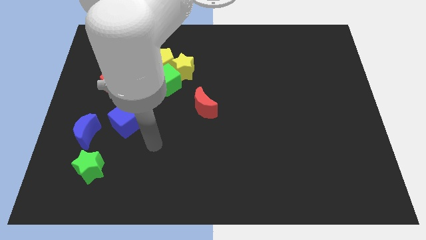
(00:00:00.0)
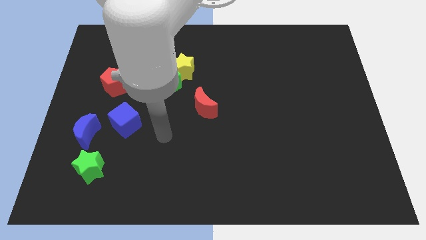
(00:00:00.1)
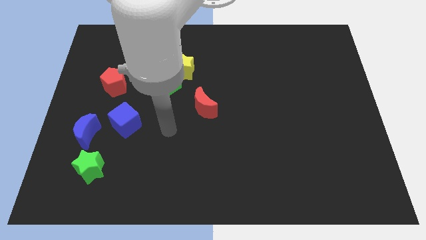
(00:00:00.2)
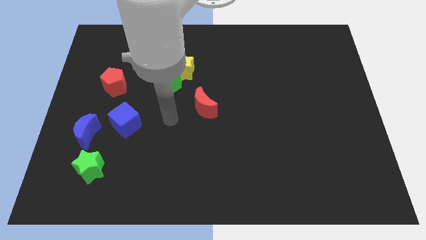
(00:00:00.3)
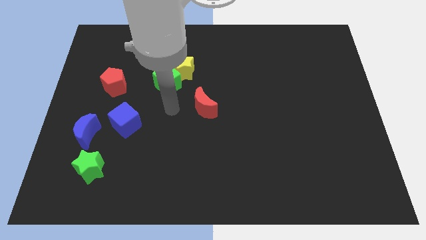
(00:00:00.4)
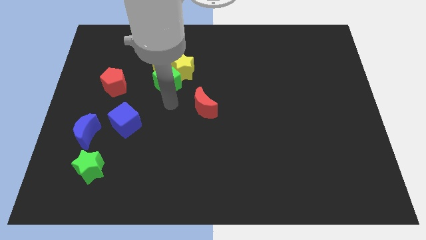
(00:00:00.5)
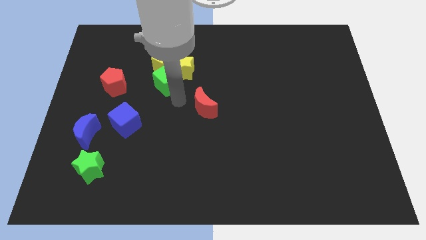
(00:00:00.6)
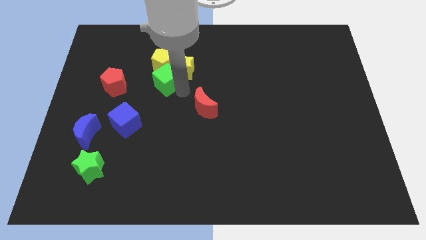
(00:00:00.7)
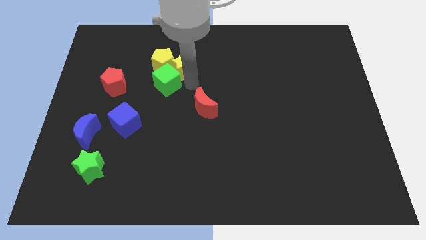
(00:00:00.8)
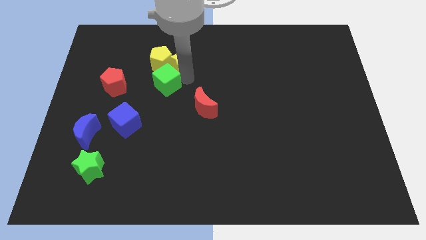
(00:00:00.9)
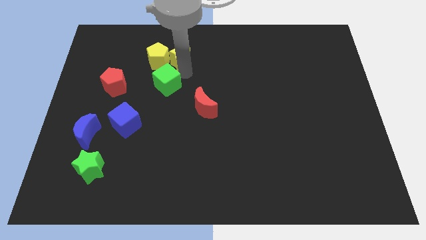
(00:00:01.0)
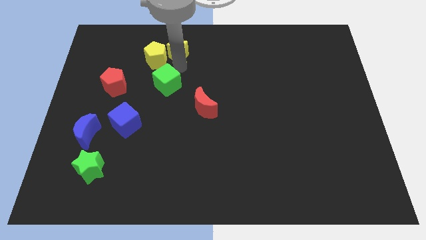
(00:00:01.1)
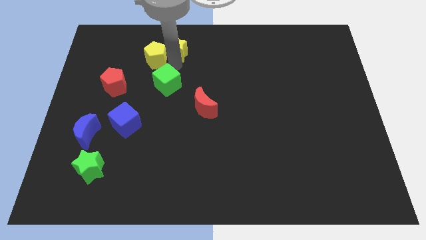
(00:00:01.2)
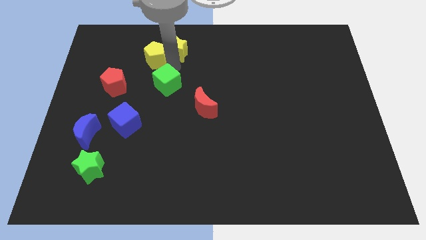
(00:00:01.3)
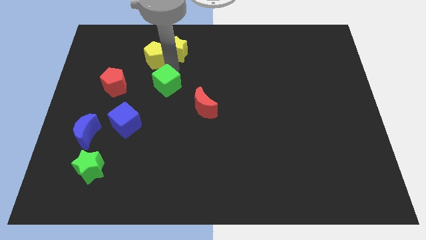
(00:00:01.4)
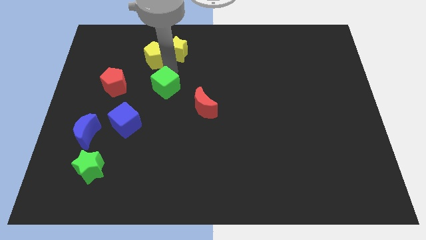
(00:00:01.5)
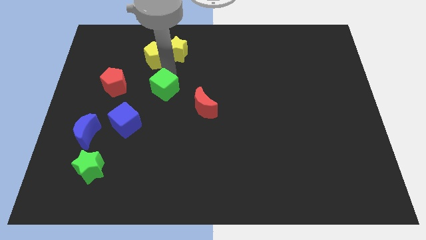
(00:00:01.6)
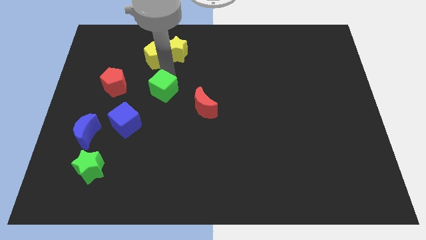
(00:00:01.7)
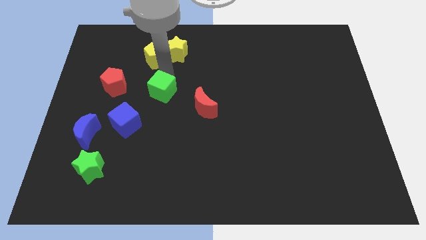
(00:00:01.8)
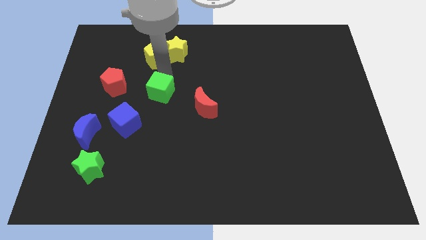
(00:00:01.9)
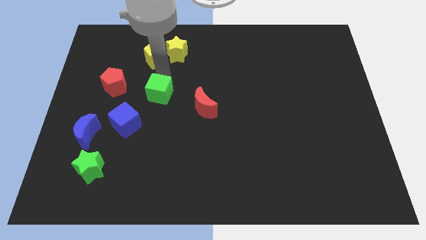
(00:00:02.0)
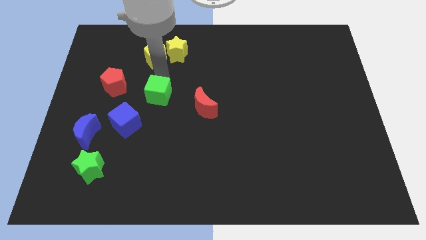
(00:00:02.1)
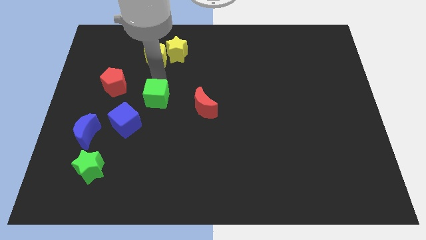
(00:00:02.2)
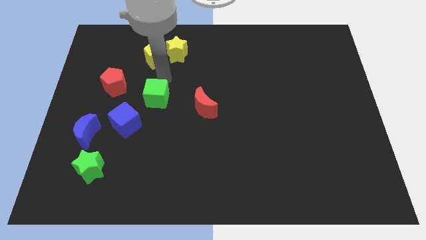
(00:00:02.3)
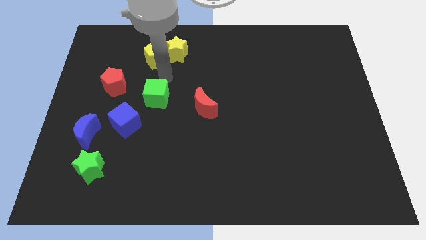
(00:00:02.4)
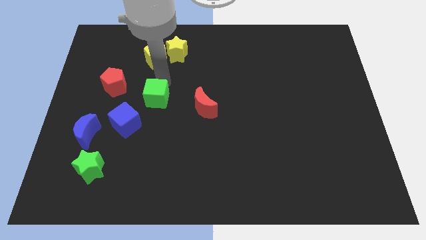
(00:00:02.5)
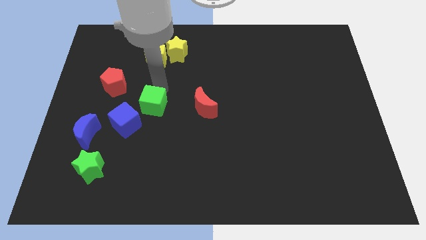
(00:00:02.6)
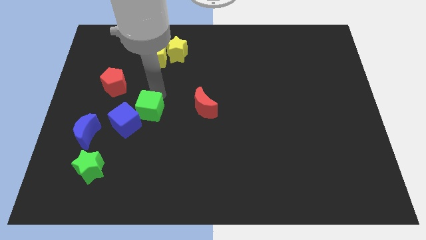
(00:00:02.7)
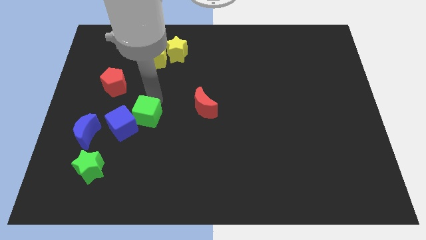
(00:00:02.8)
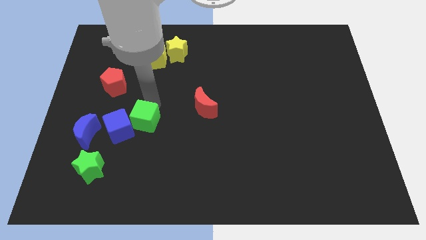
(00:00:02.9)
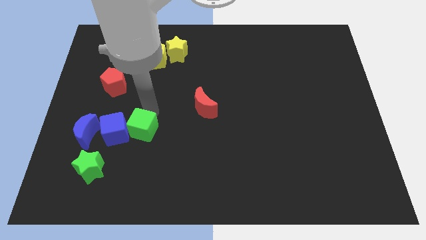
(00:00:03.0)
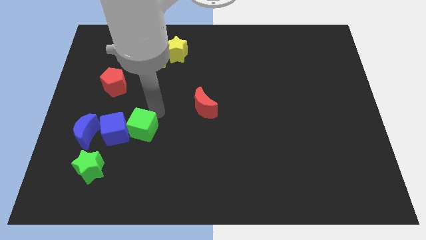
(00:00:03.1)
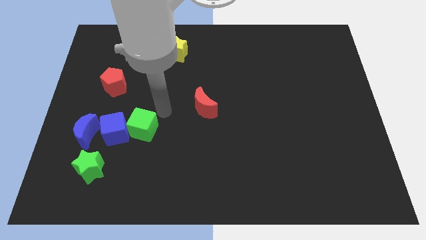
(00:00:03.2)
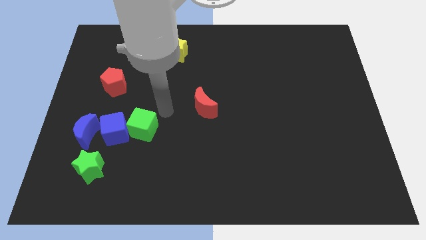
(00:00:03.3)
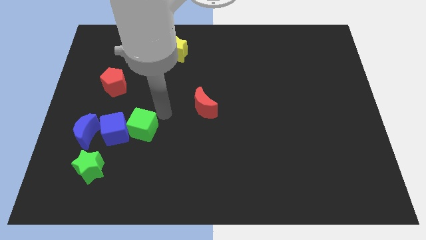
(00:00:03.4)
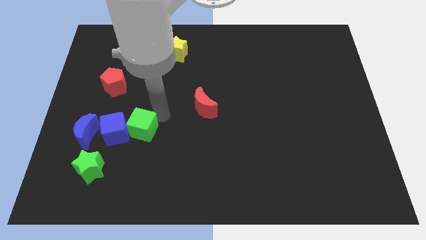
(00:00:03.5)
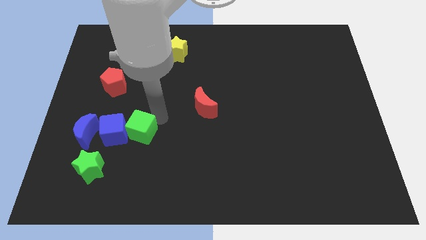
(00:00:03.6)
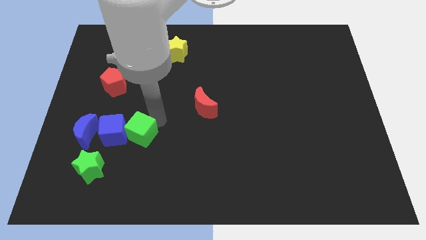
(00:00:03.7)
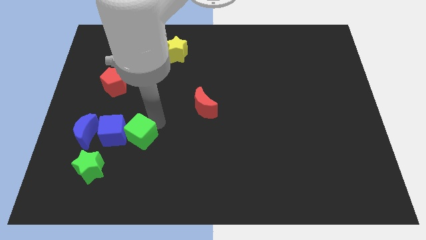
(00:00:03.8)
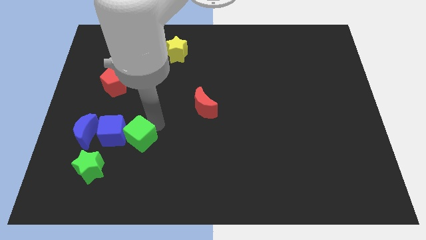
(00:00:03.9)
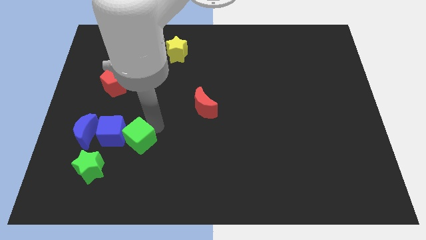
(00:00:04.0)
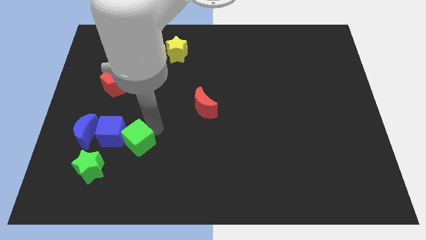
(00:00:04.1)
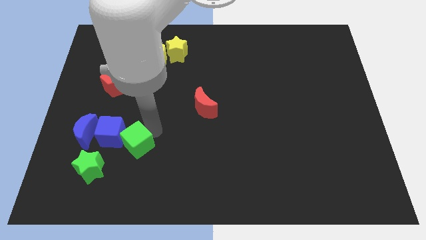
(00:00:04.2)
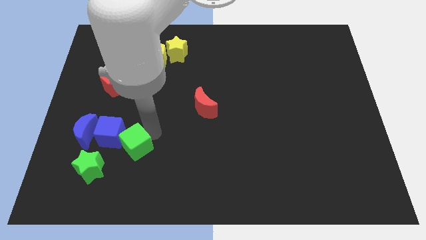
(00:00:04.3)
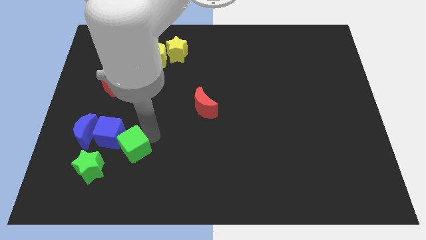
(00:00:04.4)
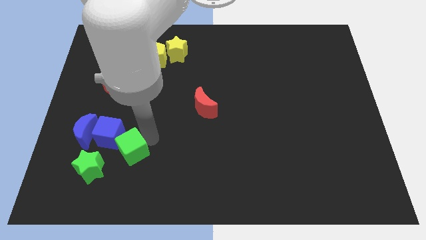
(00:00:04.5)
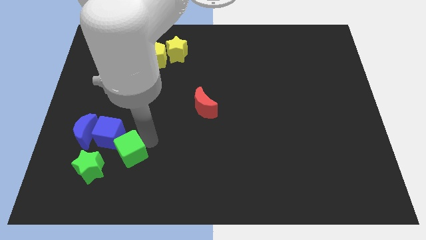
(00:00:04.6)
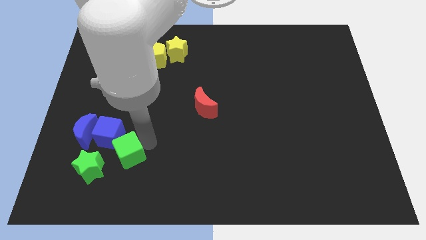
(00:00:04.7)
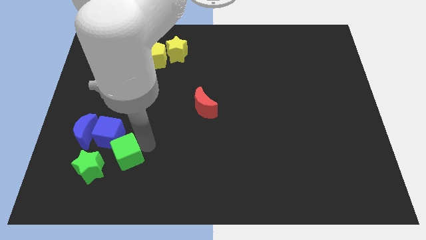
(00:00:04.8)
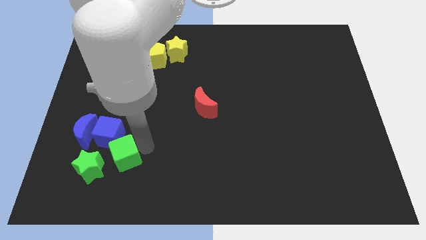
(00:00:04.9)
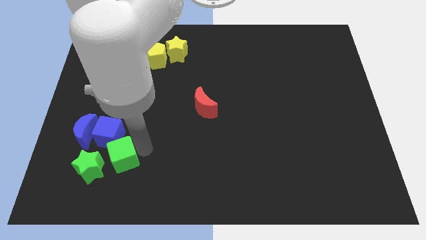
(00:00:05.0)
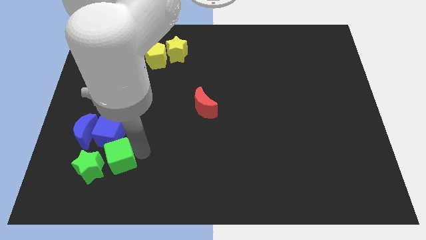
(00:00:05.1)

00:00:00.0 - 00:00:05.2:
move the green cube next to the green star

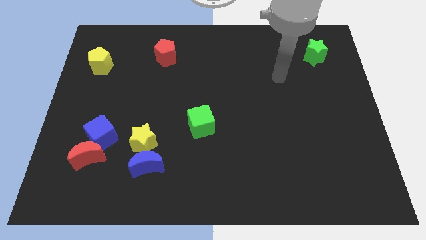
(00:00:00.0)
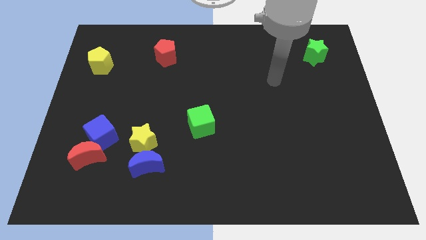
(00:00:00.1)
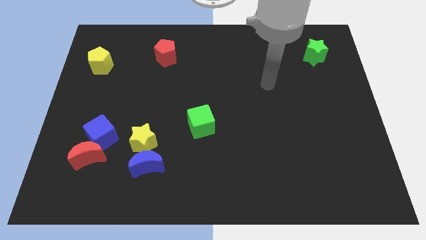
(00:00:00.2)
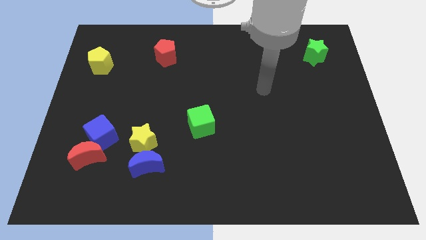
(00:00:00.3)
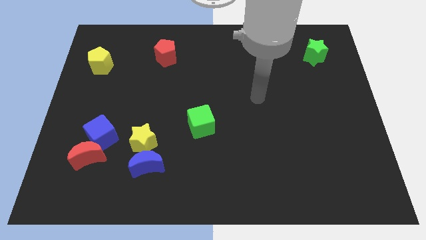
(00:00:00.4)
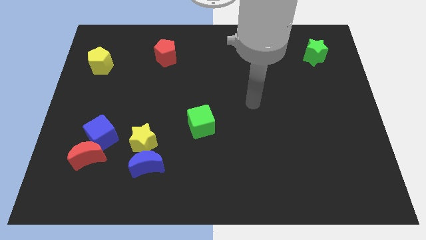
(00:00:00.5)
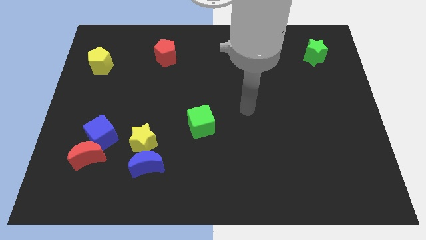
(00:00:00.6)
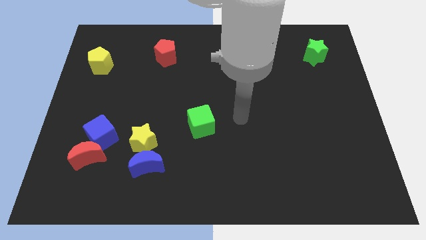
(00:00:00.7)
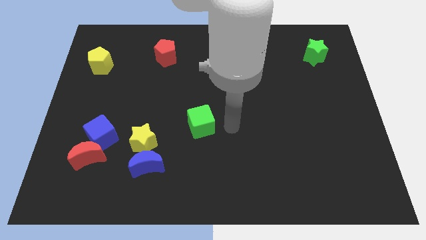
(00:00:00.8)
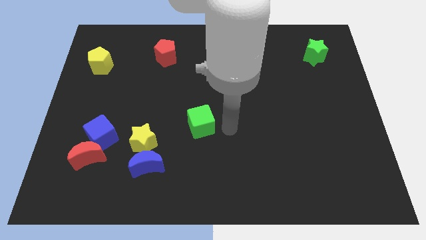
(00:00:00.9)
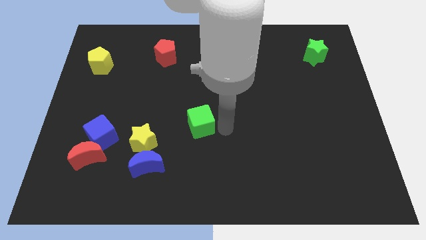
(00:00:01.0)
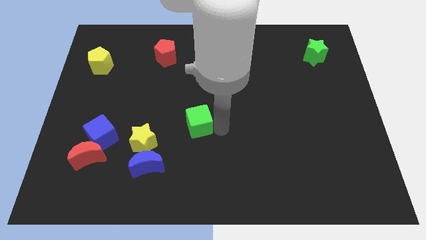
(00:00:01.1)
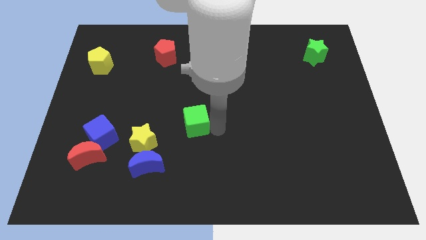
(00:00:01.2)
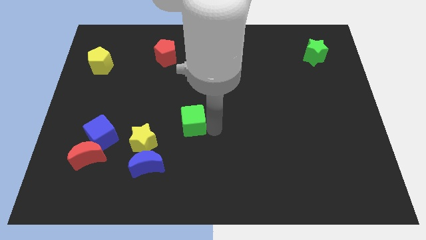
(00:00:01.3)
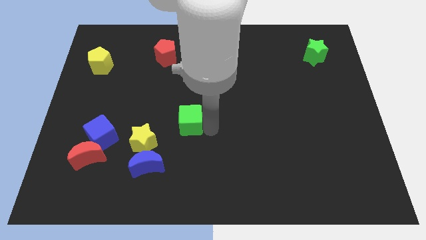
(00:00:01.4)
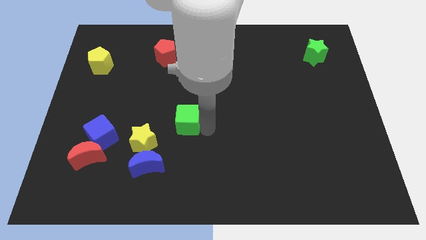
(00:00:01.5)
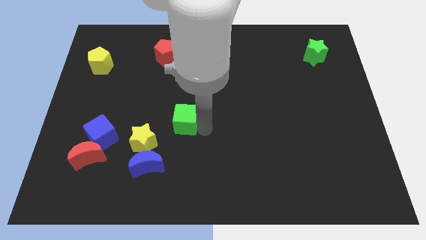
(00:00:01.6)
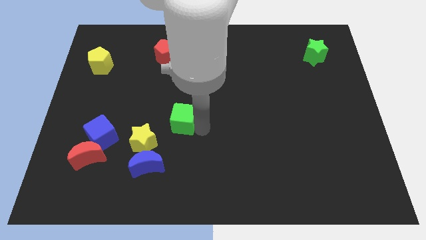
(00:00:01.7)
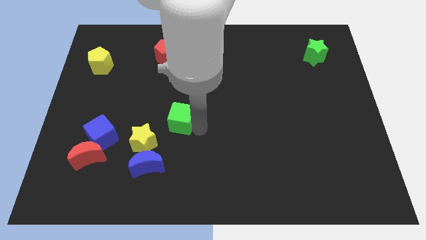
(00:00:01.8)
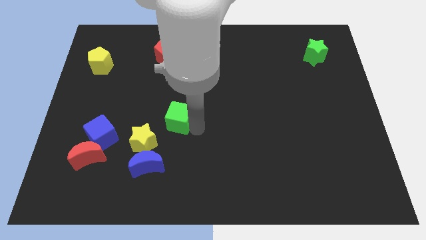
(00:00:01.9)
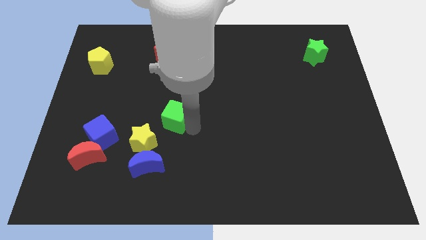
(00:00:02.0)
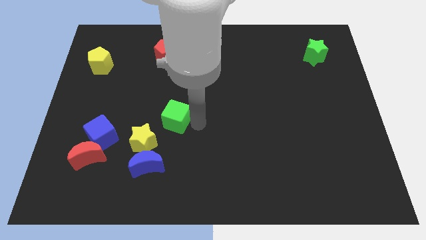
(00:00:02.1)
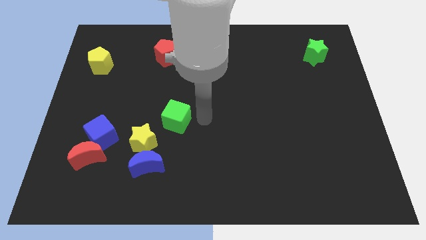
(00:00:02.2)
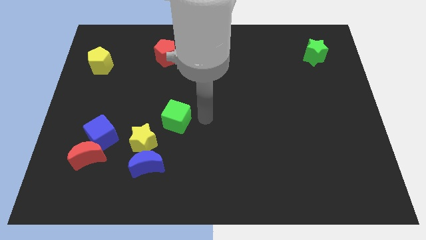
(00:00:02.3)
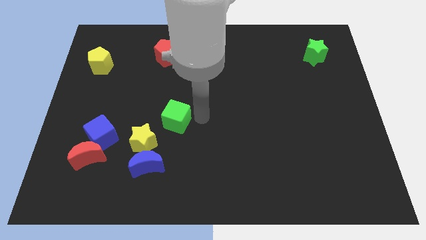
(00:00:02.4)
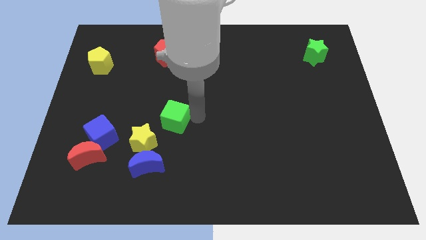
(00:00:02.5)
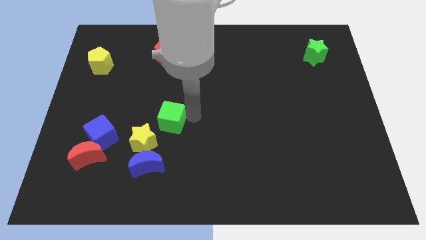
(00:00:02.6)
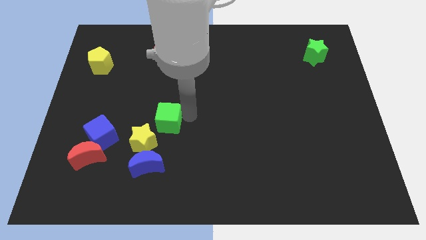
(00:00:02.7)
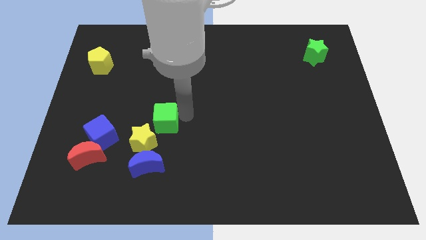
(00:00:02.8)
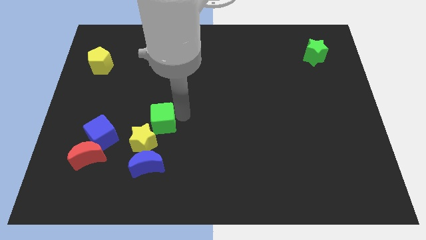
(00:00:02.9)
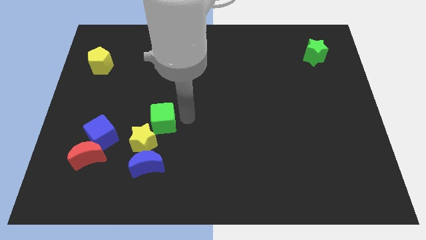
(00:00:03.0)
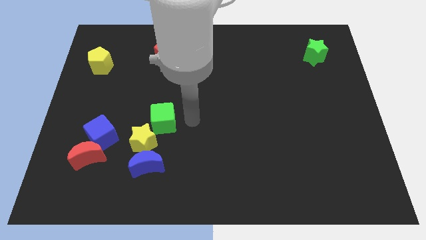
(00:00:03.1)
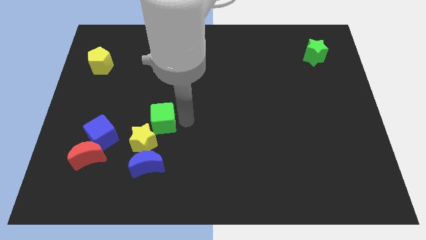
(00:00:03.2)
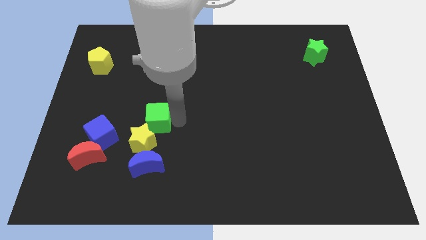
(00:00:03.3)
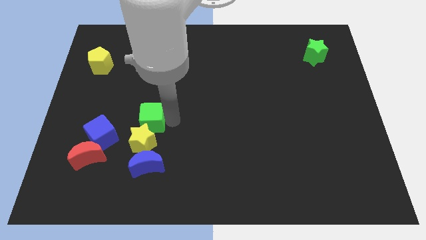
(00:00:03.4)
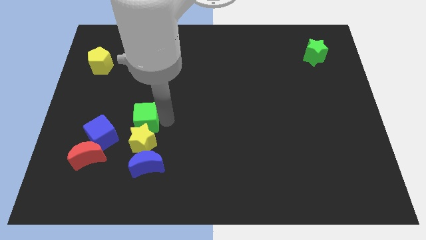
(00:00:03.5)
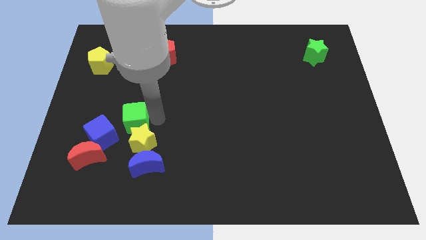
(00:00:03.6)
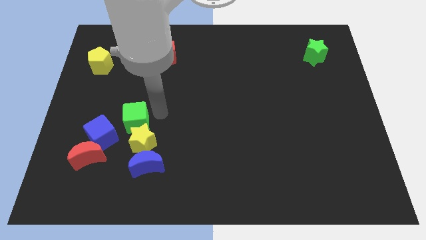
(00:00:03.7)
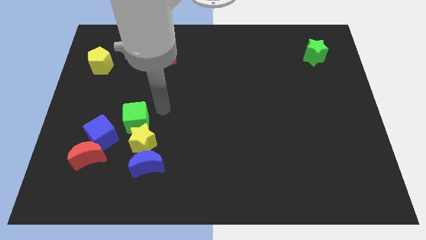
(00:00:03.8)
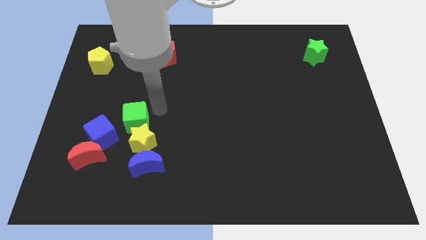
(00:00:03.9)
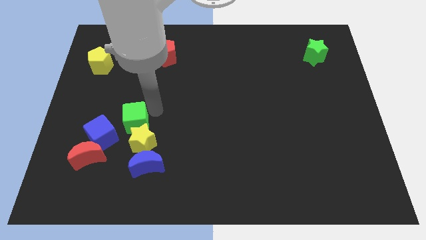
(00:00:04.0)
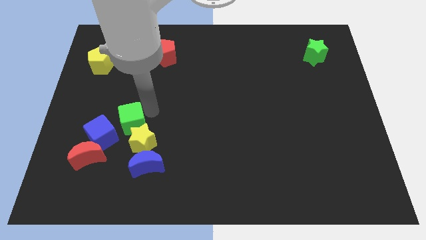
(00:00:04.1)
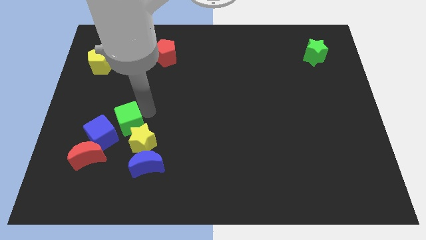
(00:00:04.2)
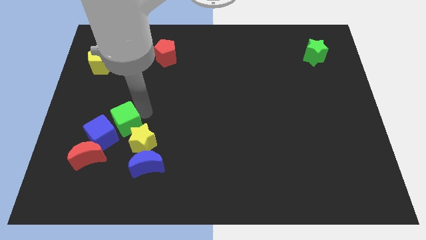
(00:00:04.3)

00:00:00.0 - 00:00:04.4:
push the green cube close to the blue cube
